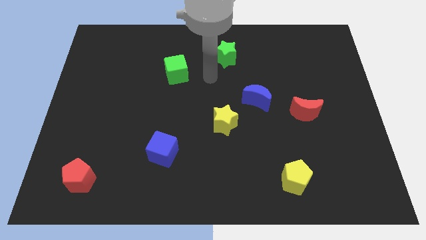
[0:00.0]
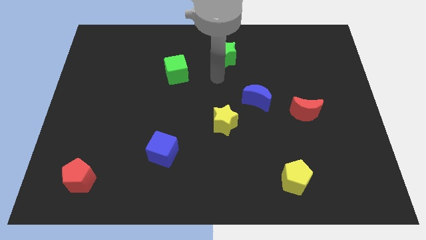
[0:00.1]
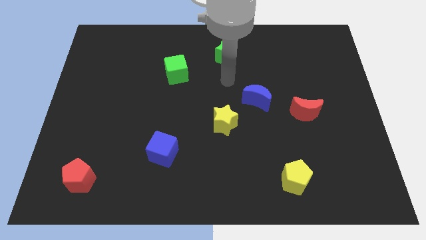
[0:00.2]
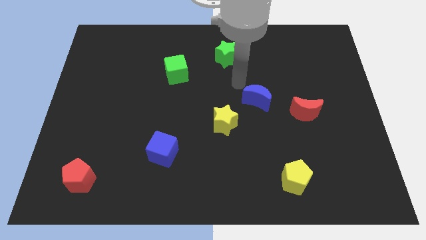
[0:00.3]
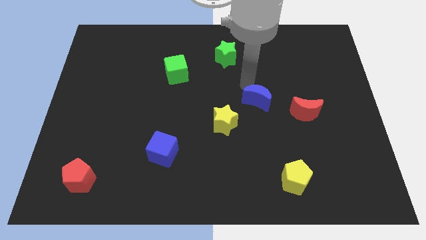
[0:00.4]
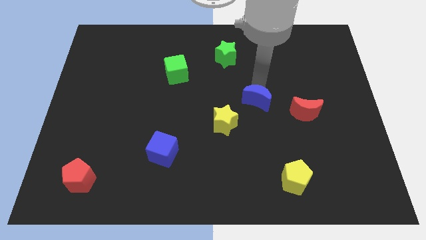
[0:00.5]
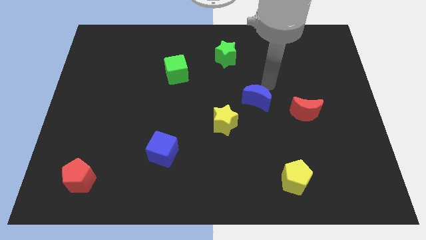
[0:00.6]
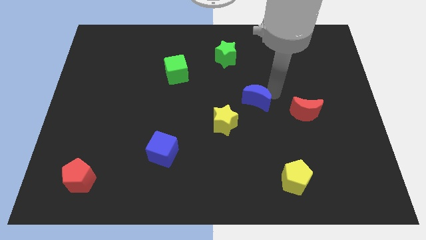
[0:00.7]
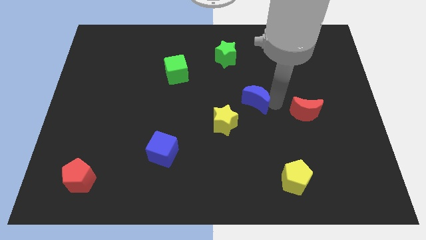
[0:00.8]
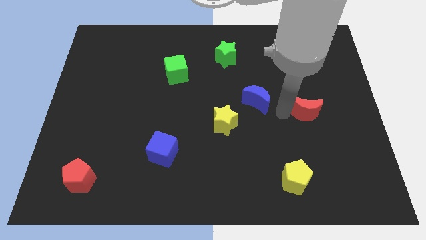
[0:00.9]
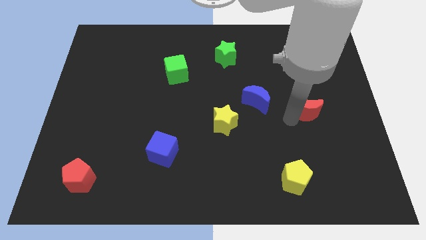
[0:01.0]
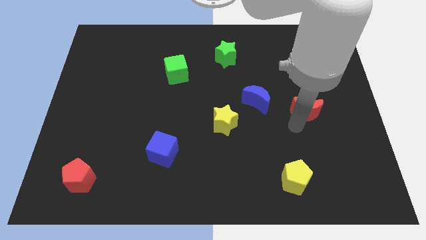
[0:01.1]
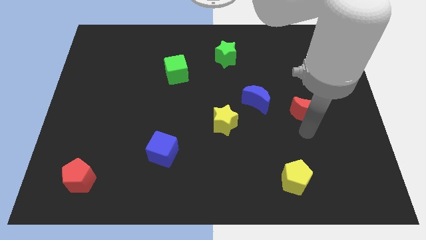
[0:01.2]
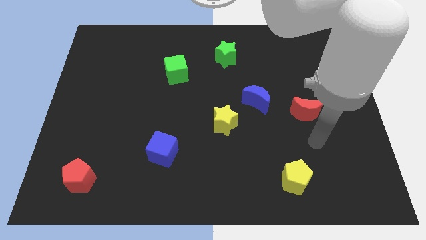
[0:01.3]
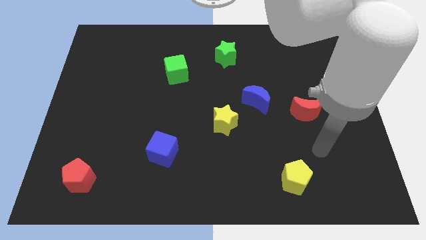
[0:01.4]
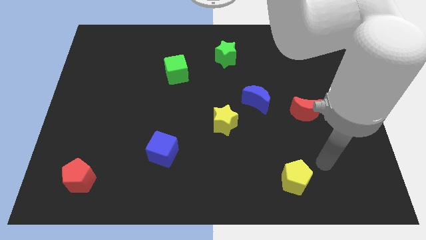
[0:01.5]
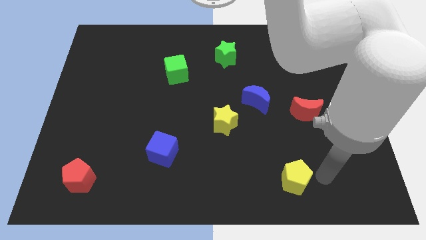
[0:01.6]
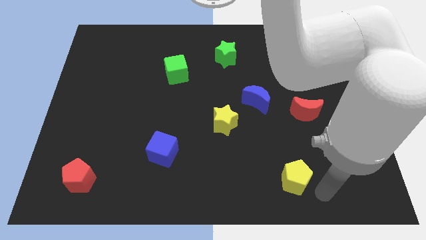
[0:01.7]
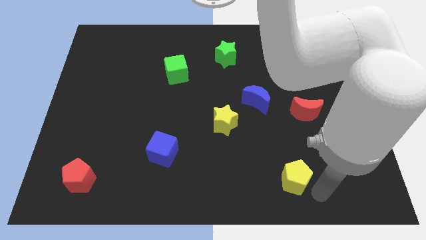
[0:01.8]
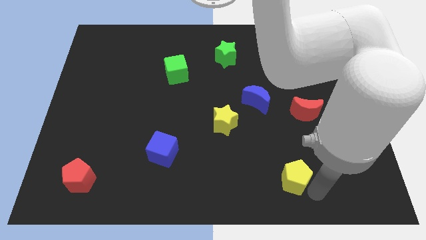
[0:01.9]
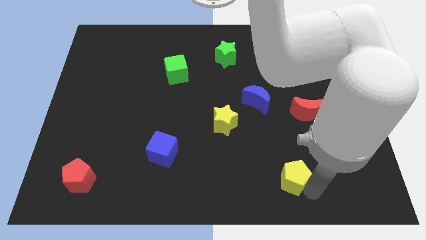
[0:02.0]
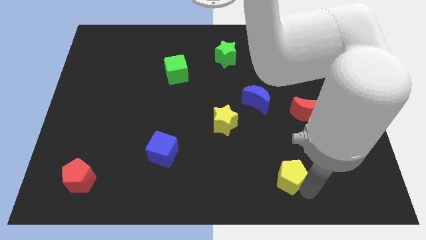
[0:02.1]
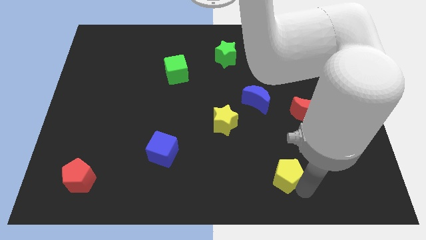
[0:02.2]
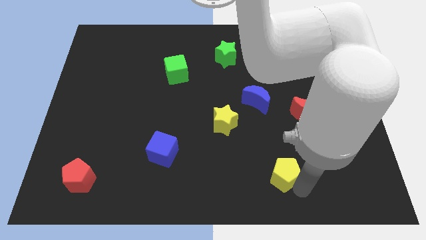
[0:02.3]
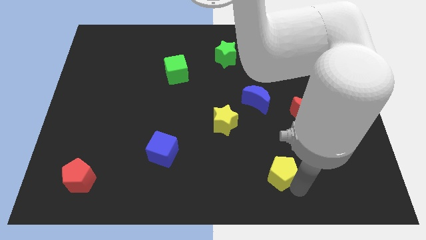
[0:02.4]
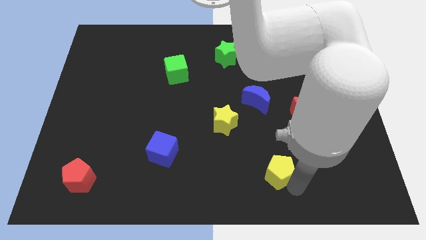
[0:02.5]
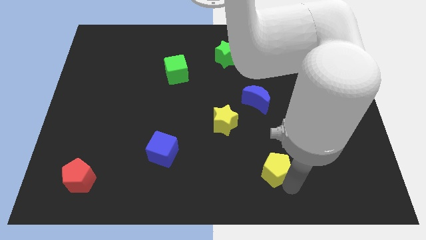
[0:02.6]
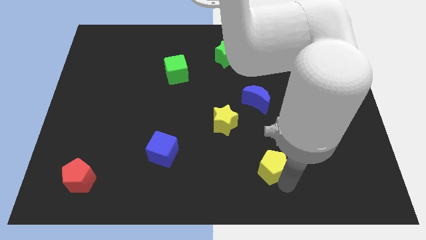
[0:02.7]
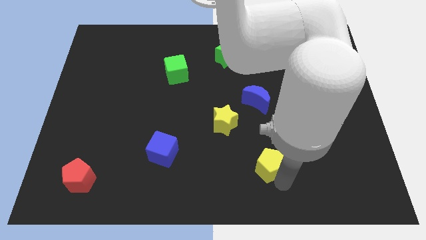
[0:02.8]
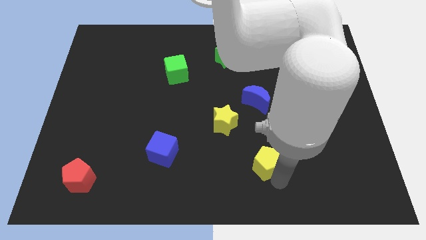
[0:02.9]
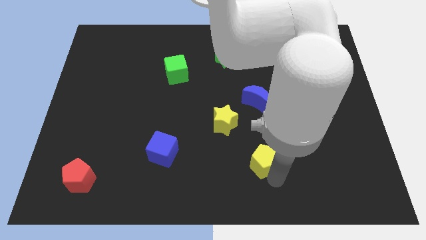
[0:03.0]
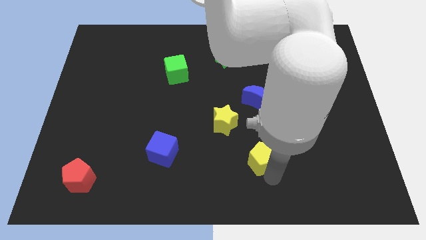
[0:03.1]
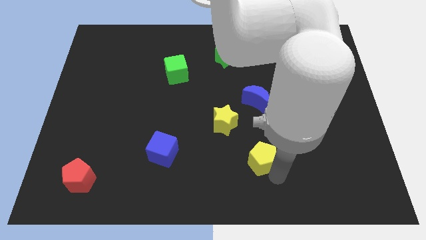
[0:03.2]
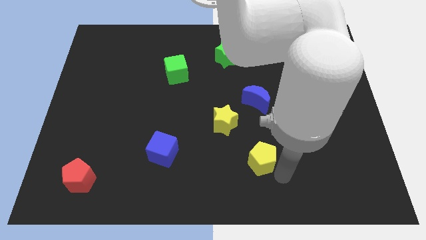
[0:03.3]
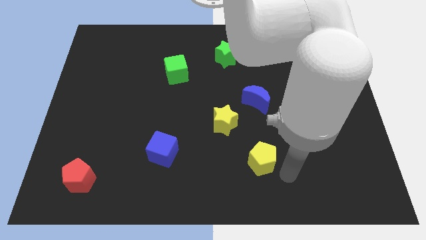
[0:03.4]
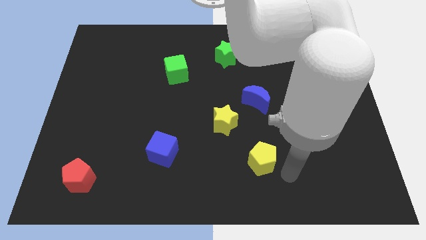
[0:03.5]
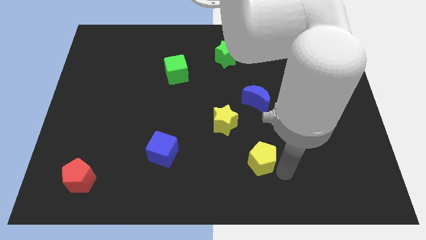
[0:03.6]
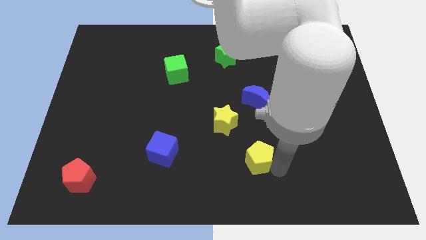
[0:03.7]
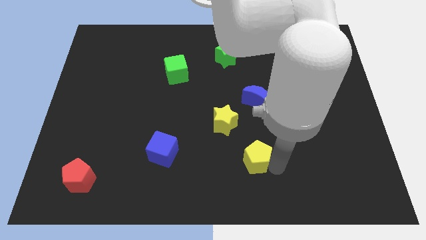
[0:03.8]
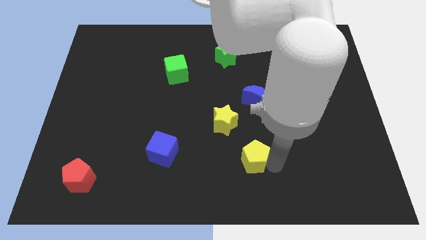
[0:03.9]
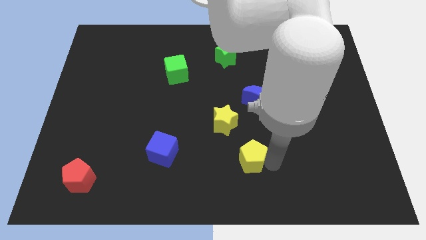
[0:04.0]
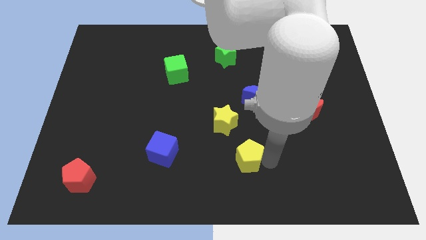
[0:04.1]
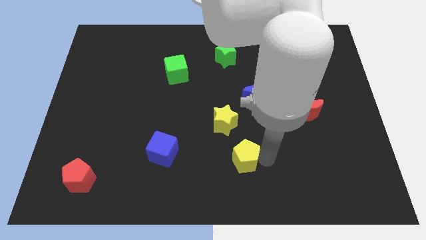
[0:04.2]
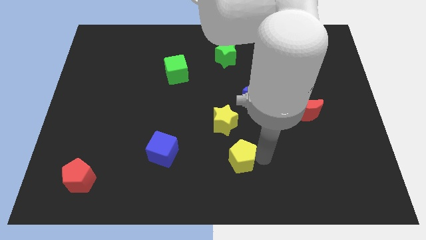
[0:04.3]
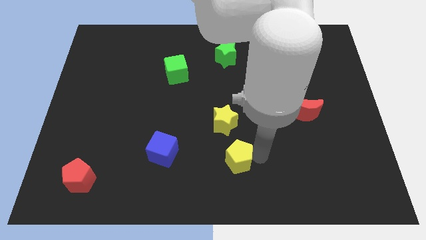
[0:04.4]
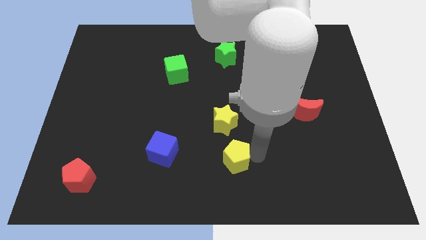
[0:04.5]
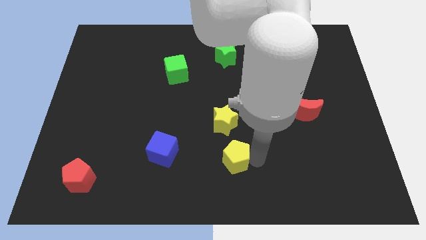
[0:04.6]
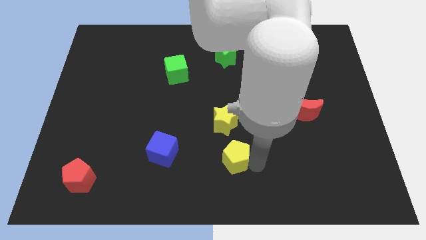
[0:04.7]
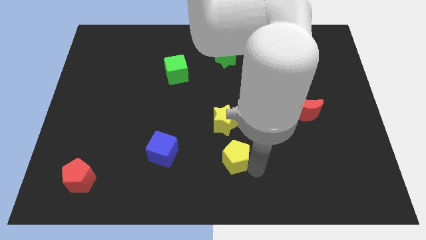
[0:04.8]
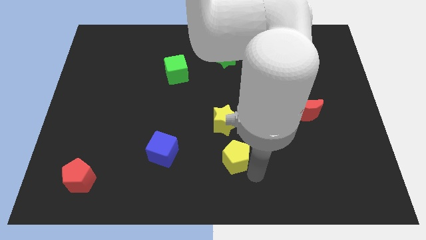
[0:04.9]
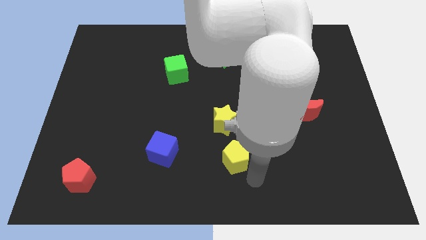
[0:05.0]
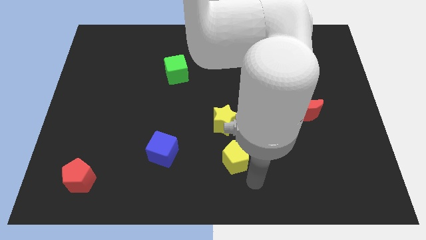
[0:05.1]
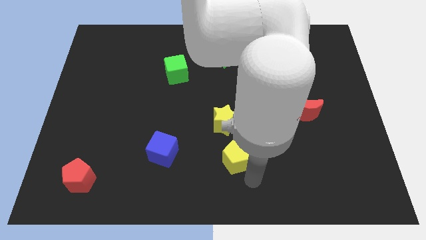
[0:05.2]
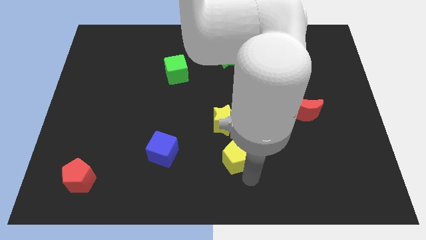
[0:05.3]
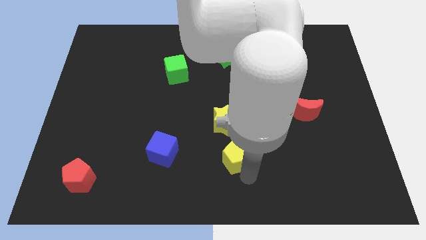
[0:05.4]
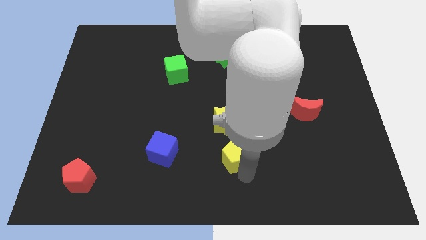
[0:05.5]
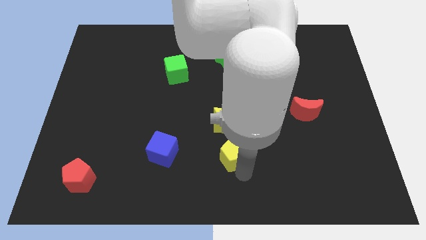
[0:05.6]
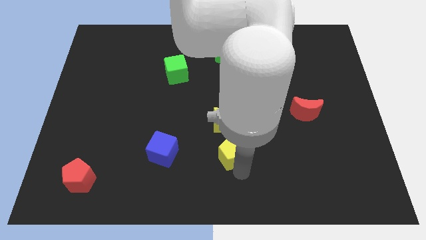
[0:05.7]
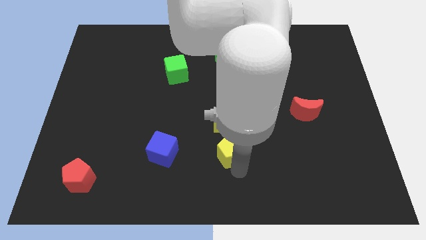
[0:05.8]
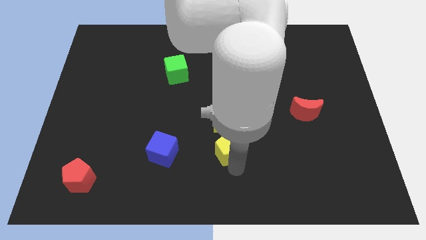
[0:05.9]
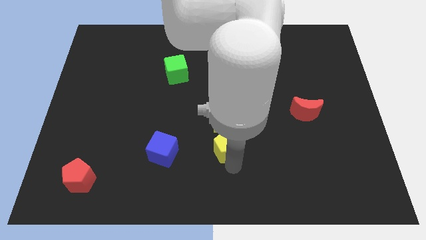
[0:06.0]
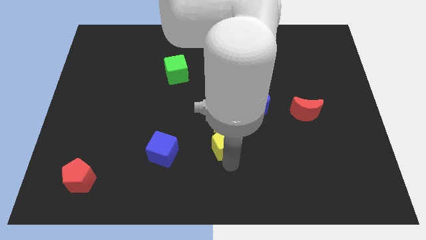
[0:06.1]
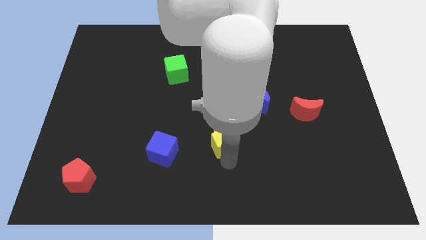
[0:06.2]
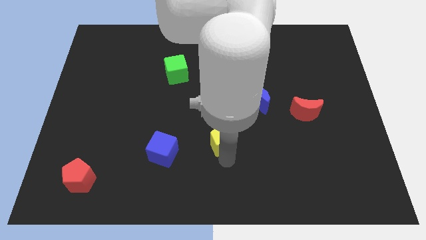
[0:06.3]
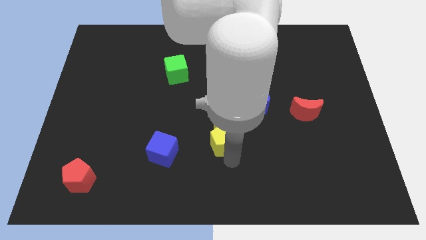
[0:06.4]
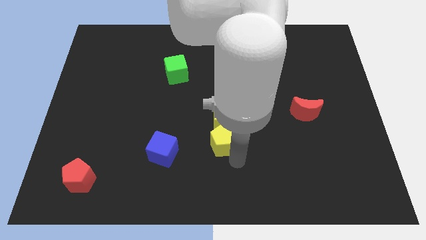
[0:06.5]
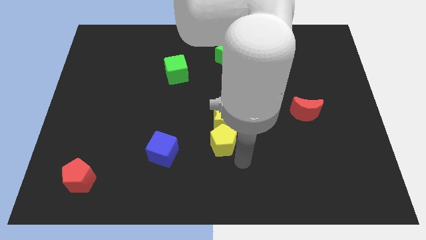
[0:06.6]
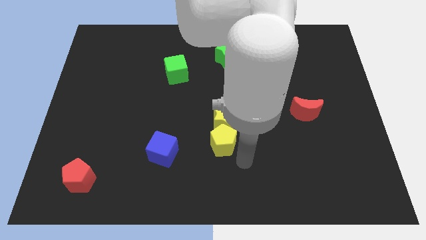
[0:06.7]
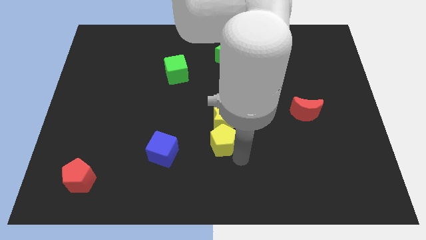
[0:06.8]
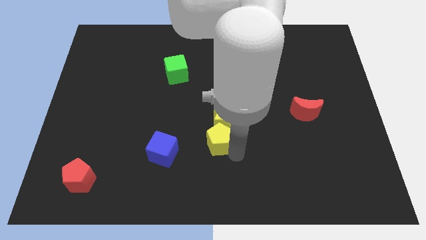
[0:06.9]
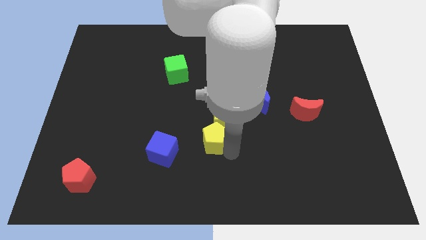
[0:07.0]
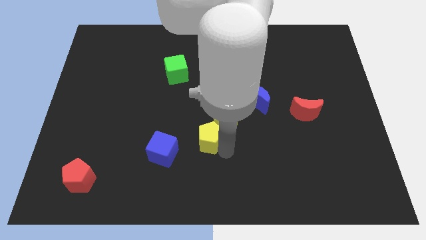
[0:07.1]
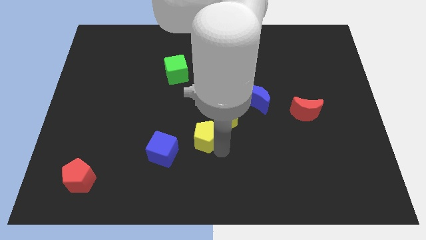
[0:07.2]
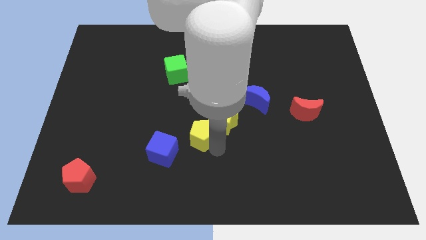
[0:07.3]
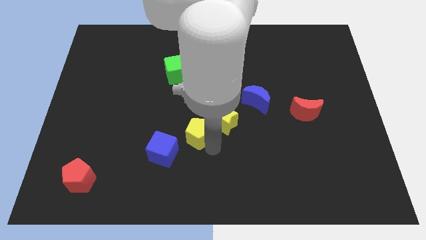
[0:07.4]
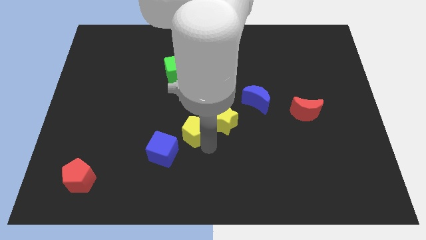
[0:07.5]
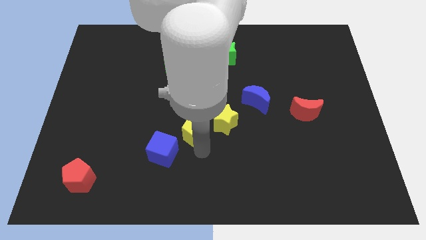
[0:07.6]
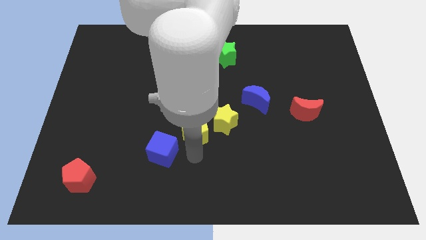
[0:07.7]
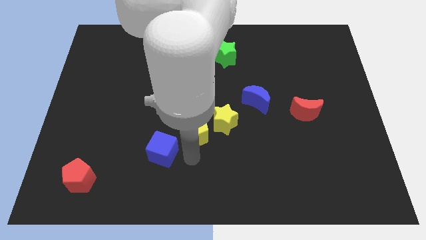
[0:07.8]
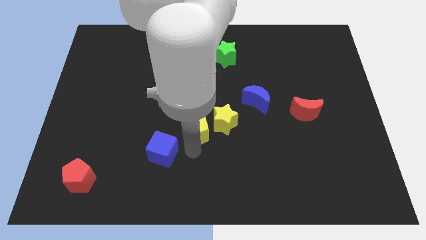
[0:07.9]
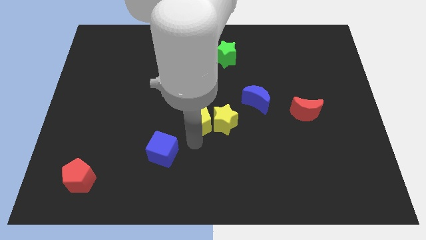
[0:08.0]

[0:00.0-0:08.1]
push the yellow pentagon to the top left side of the yellow star
